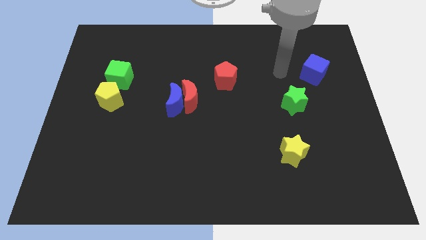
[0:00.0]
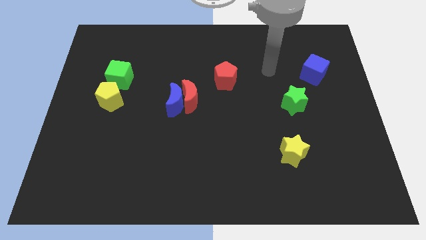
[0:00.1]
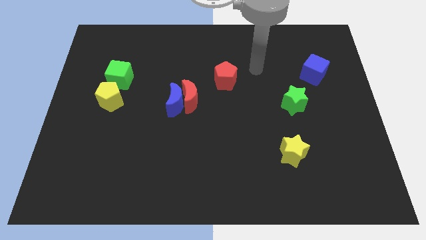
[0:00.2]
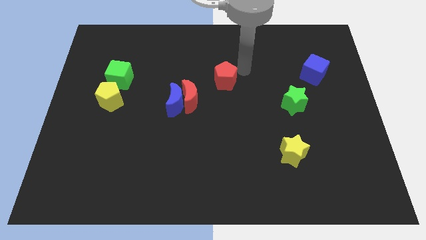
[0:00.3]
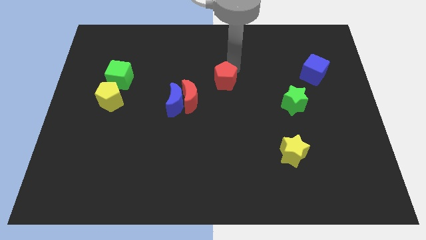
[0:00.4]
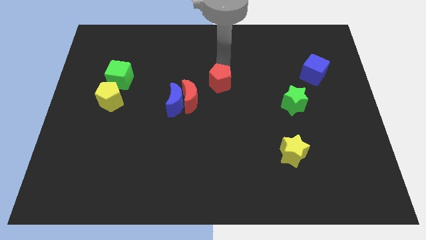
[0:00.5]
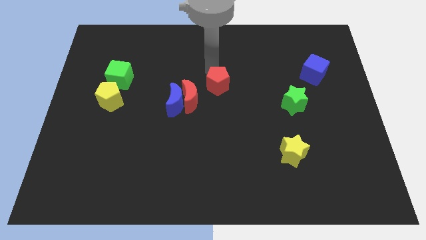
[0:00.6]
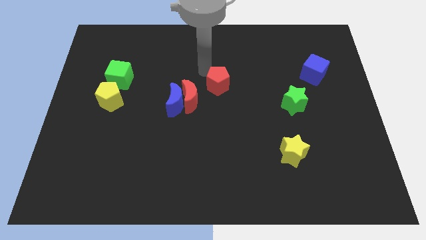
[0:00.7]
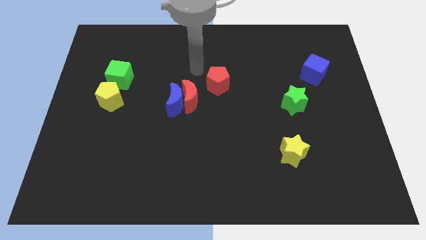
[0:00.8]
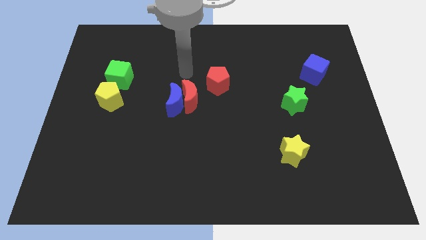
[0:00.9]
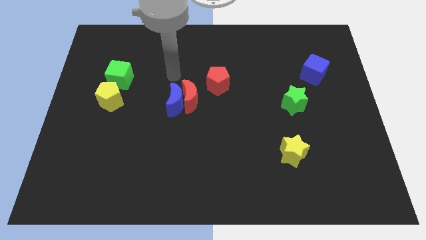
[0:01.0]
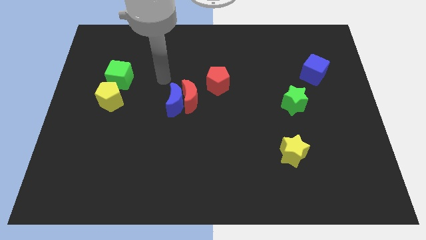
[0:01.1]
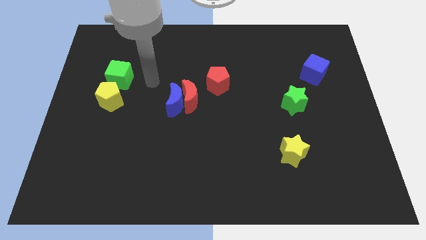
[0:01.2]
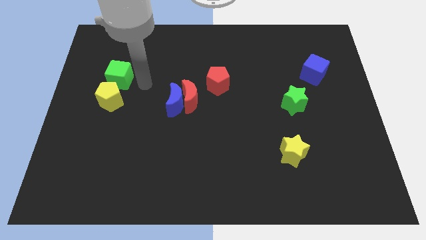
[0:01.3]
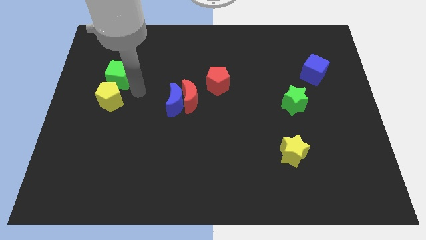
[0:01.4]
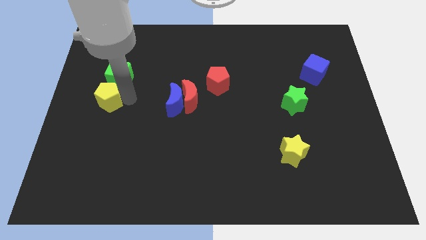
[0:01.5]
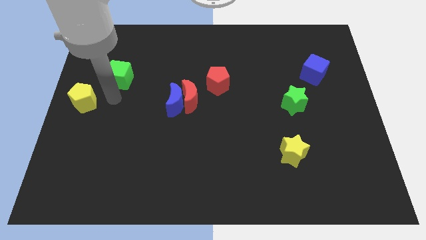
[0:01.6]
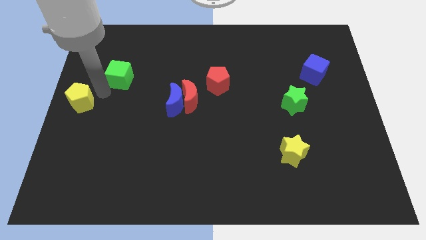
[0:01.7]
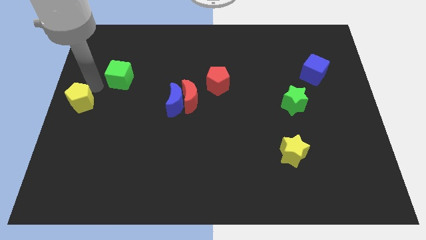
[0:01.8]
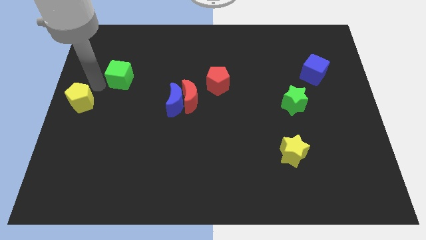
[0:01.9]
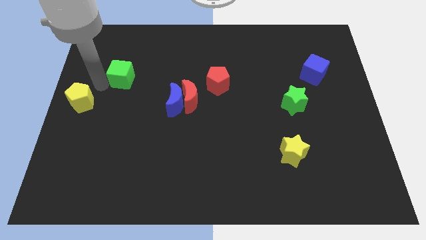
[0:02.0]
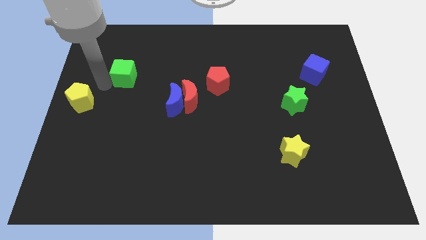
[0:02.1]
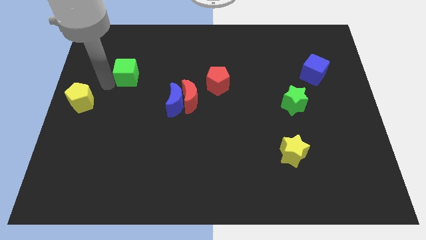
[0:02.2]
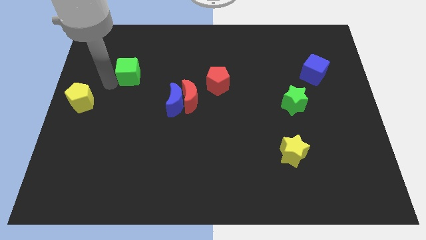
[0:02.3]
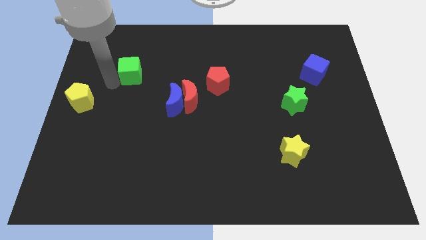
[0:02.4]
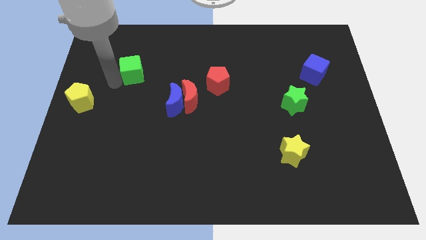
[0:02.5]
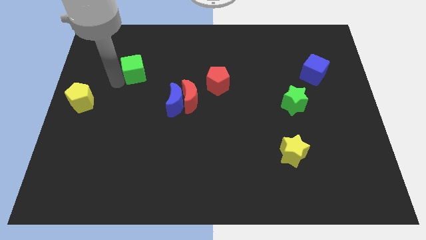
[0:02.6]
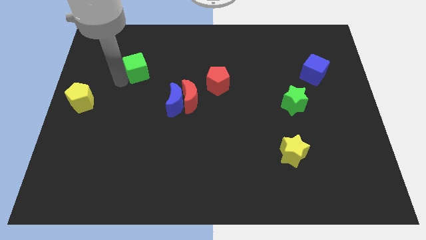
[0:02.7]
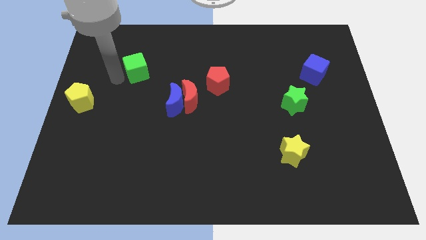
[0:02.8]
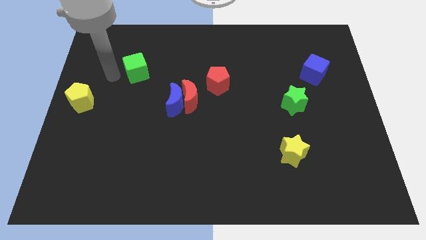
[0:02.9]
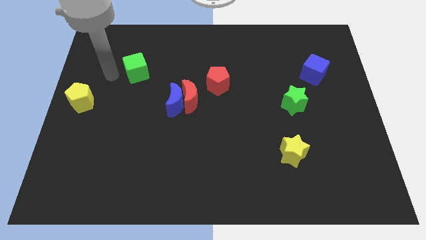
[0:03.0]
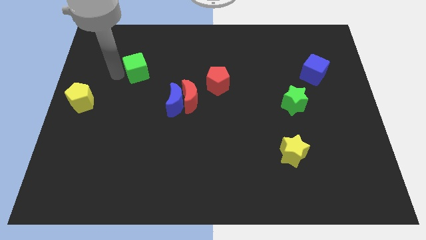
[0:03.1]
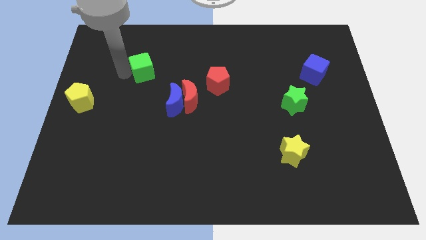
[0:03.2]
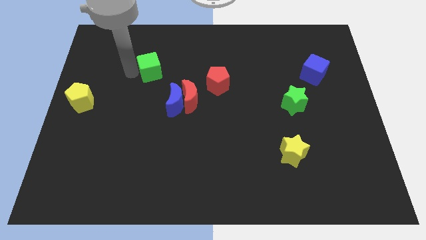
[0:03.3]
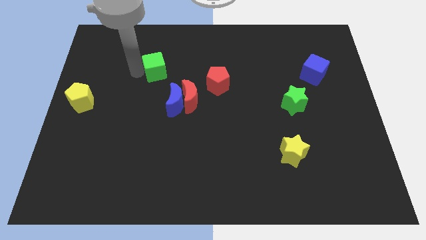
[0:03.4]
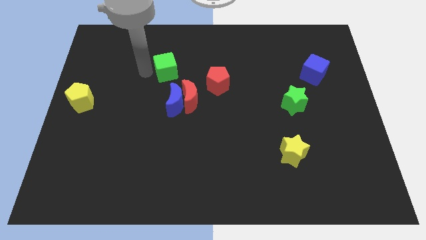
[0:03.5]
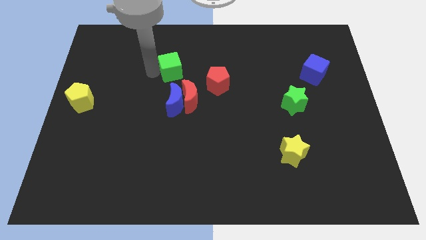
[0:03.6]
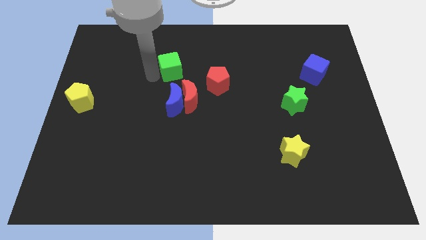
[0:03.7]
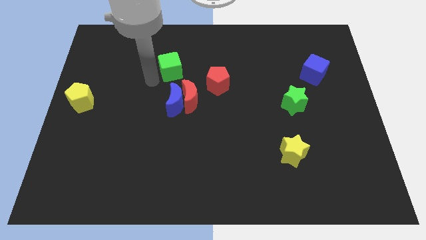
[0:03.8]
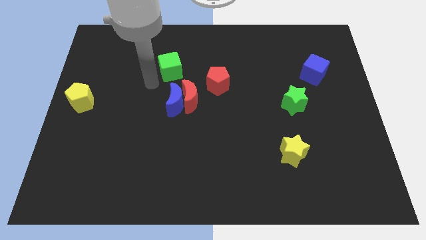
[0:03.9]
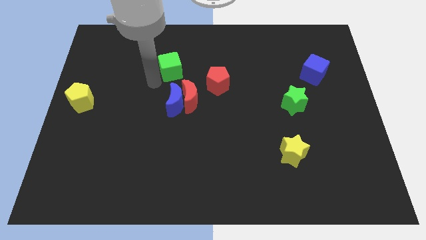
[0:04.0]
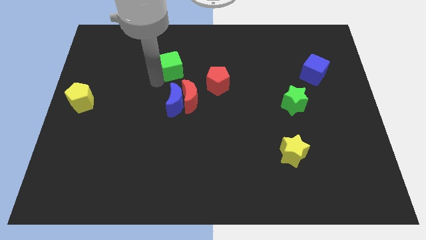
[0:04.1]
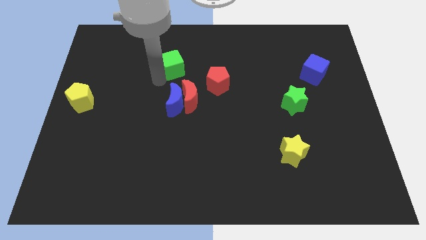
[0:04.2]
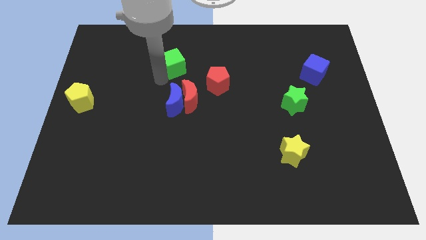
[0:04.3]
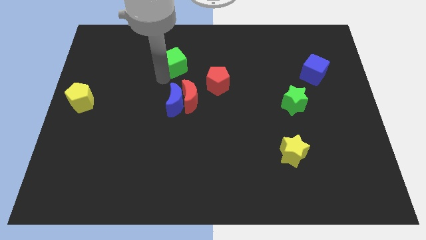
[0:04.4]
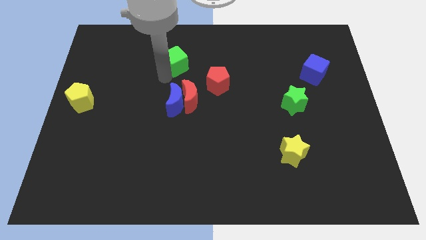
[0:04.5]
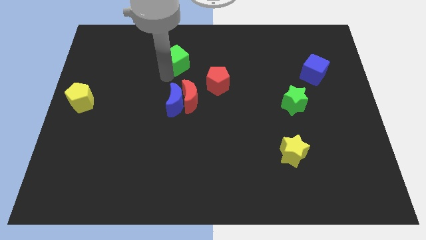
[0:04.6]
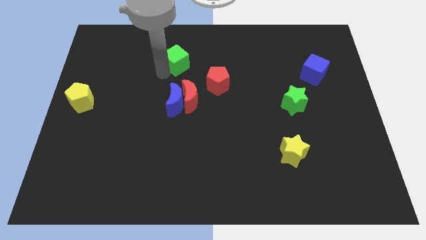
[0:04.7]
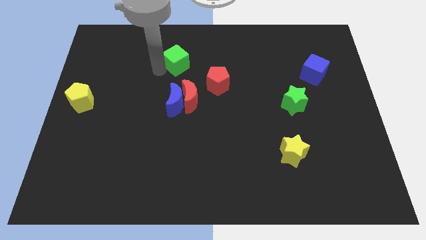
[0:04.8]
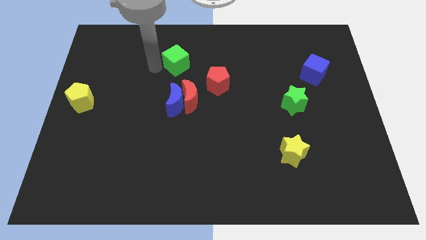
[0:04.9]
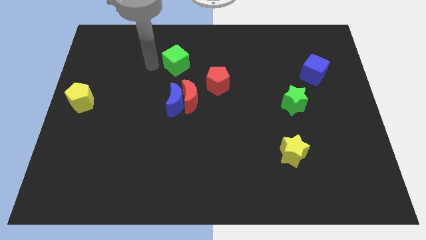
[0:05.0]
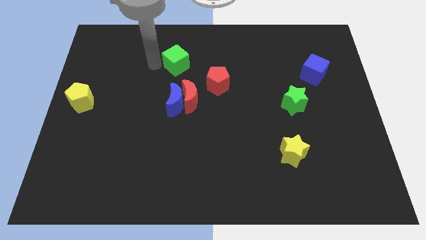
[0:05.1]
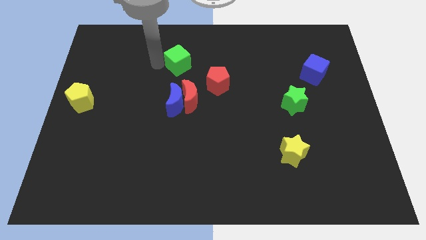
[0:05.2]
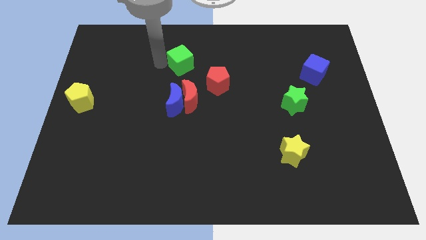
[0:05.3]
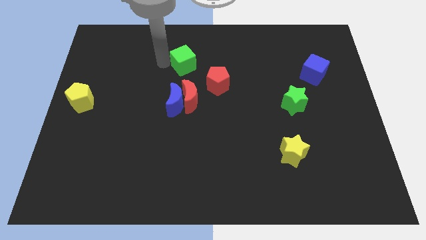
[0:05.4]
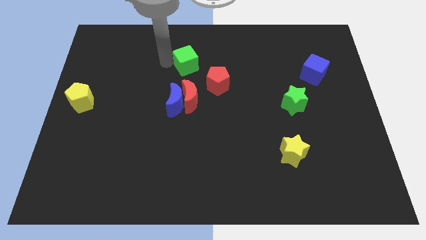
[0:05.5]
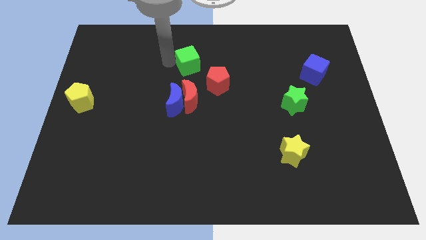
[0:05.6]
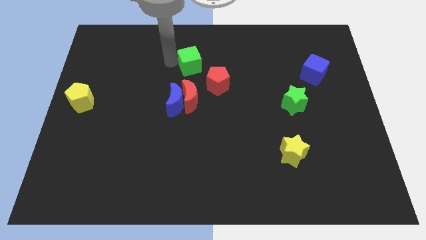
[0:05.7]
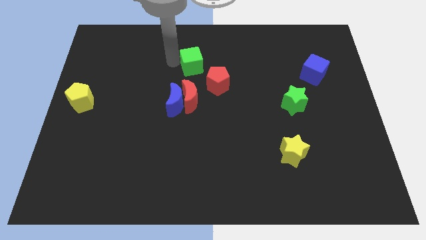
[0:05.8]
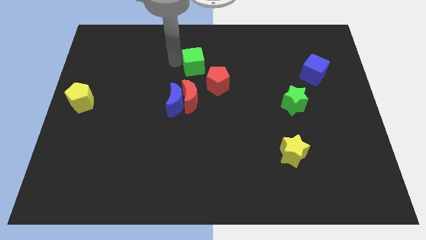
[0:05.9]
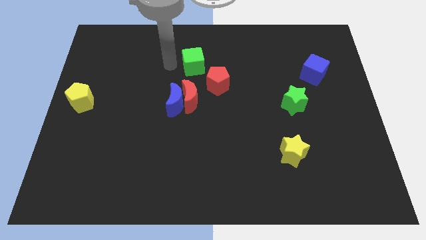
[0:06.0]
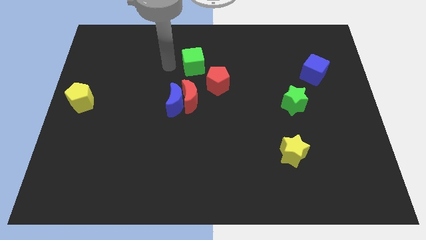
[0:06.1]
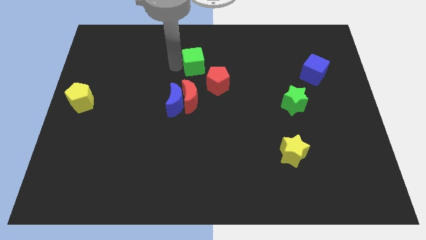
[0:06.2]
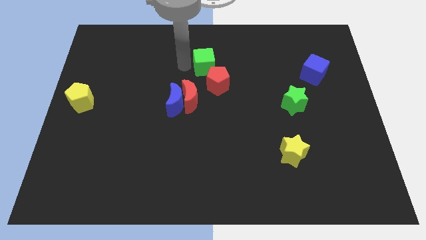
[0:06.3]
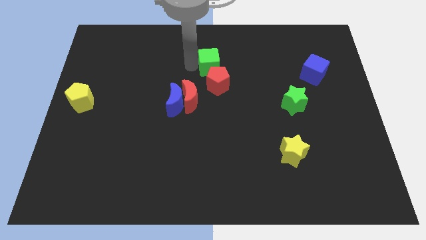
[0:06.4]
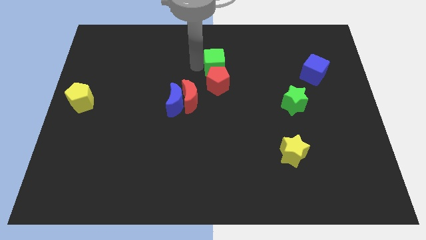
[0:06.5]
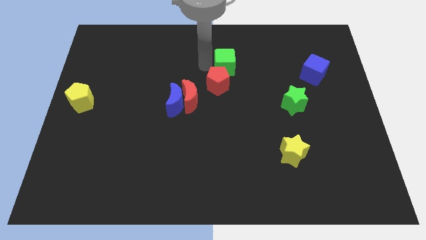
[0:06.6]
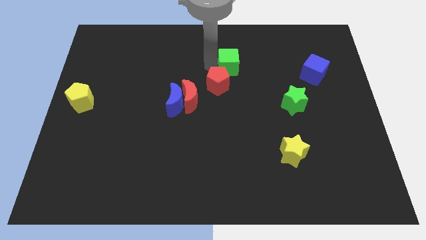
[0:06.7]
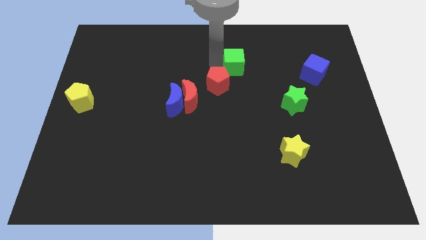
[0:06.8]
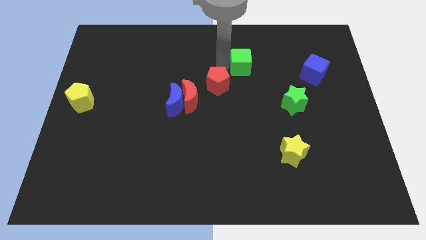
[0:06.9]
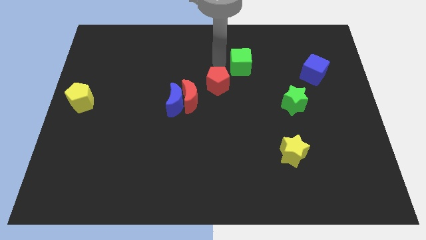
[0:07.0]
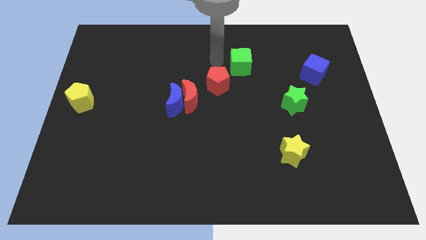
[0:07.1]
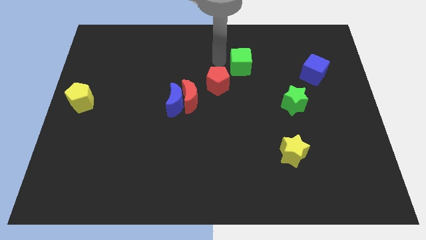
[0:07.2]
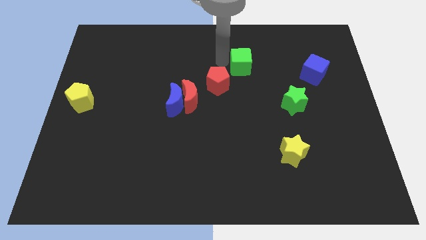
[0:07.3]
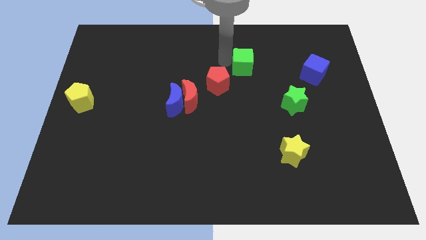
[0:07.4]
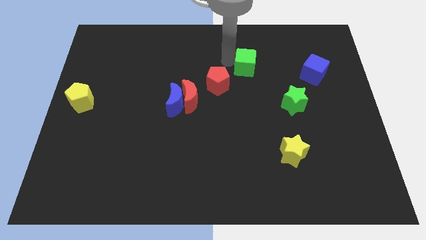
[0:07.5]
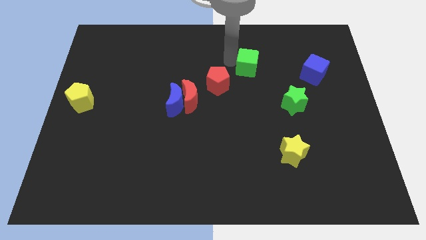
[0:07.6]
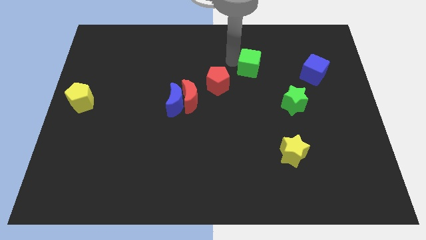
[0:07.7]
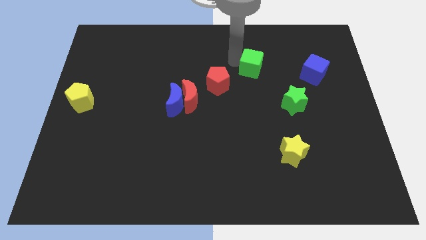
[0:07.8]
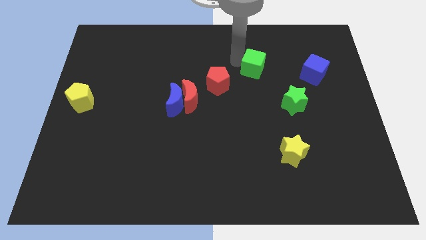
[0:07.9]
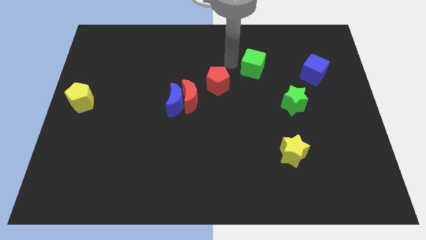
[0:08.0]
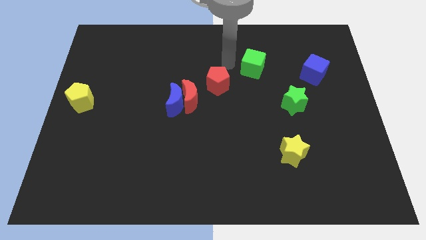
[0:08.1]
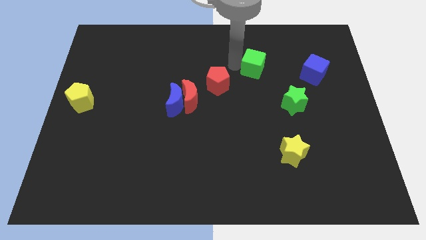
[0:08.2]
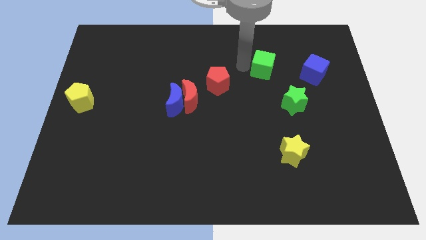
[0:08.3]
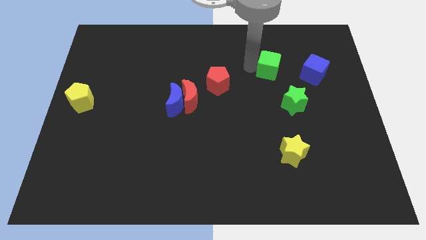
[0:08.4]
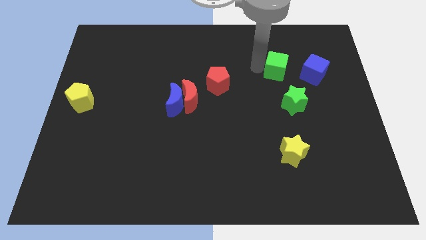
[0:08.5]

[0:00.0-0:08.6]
slide the green cube above the green star
